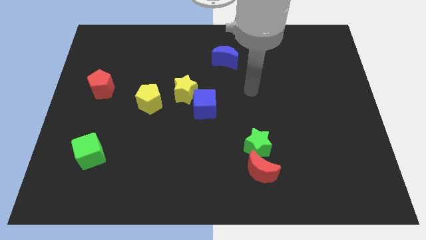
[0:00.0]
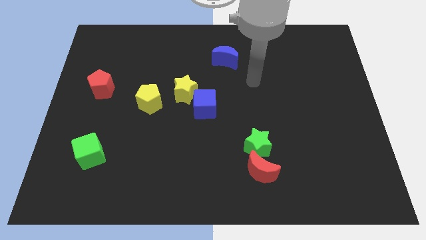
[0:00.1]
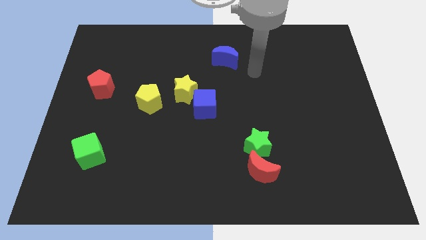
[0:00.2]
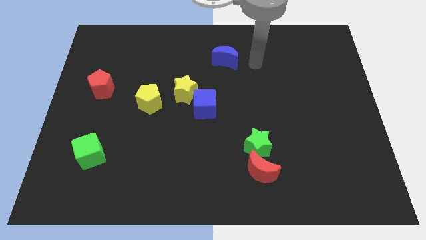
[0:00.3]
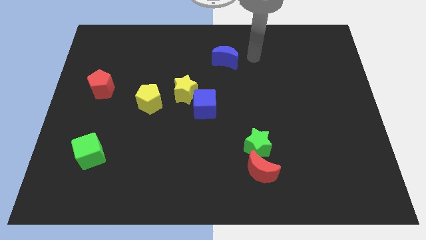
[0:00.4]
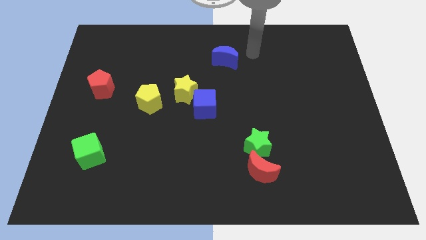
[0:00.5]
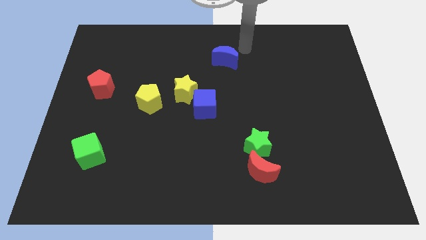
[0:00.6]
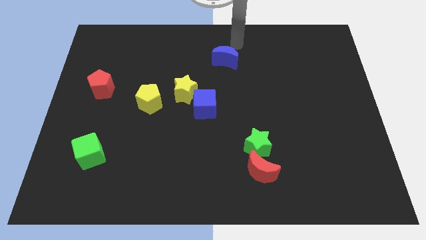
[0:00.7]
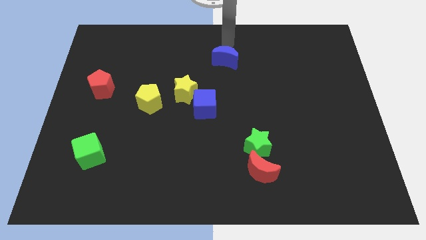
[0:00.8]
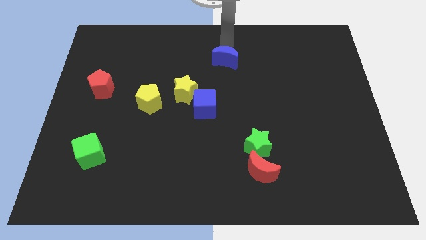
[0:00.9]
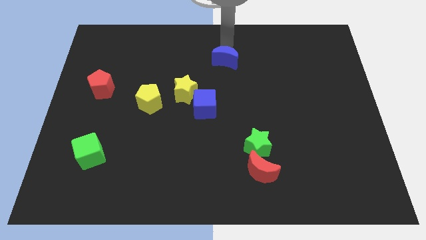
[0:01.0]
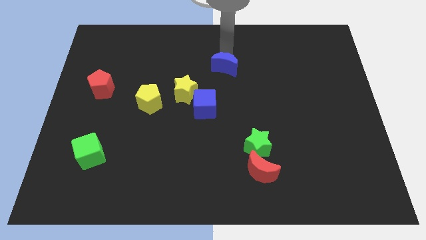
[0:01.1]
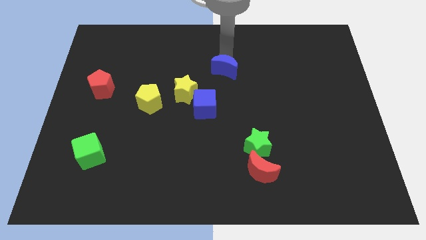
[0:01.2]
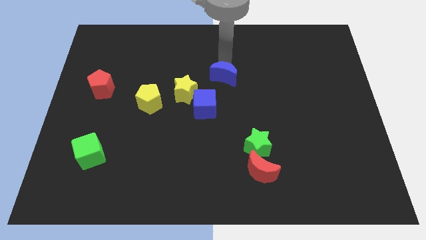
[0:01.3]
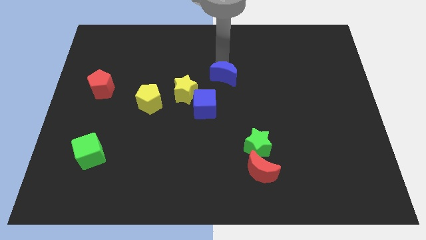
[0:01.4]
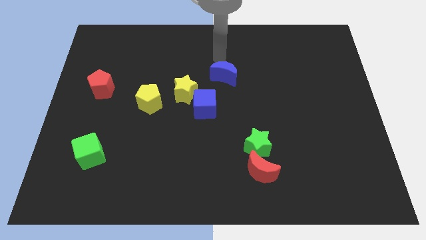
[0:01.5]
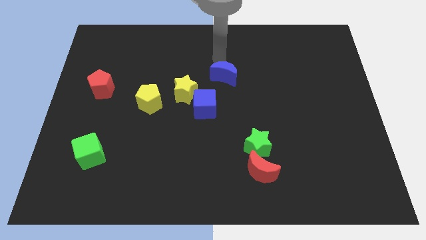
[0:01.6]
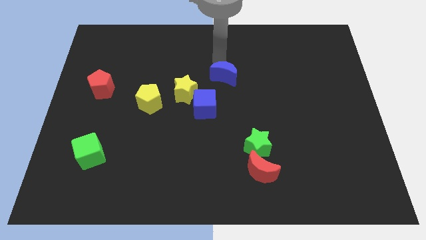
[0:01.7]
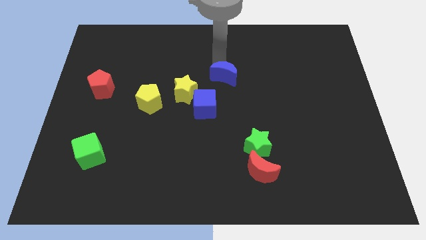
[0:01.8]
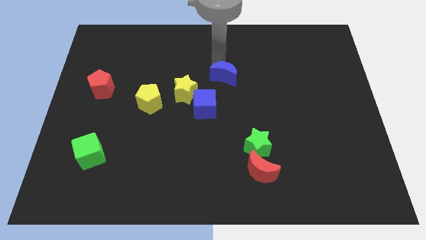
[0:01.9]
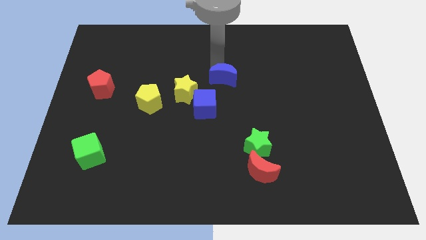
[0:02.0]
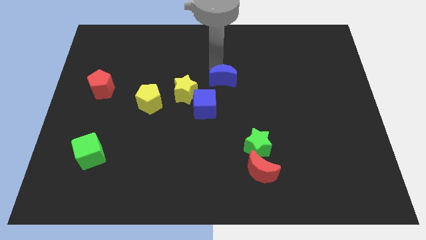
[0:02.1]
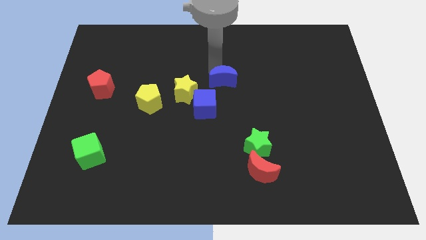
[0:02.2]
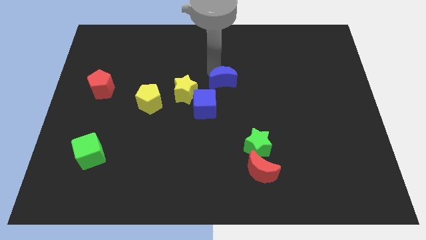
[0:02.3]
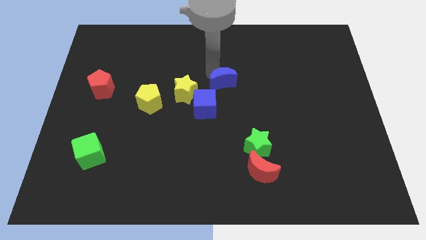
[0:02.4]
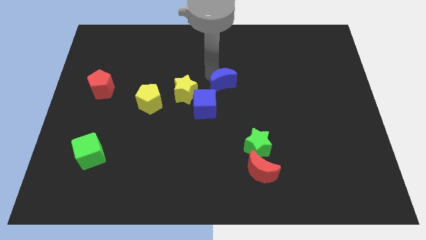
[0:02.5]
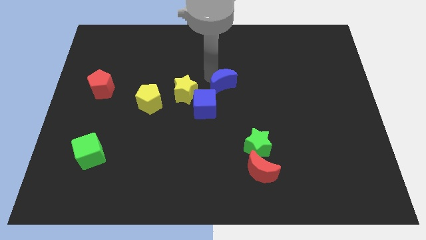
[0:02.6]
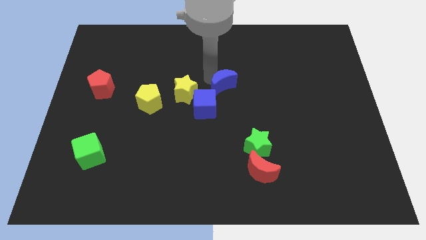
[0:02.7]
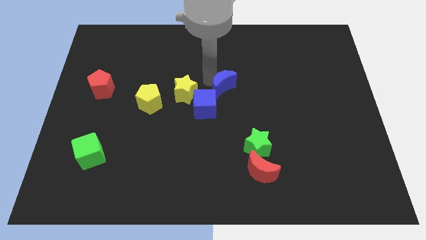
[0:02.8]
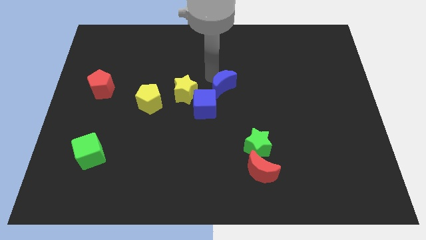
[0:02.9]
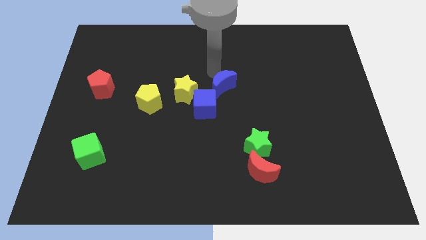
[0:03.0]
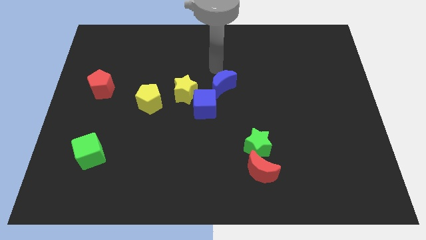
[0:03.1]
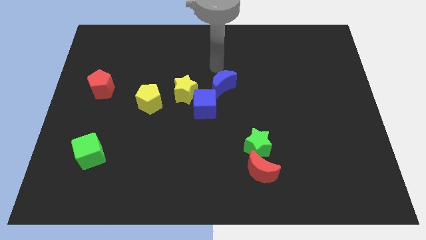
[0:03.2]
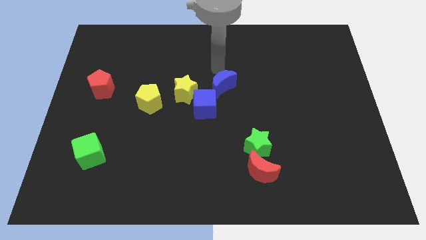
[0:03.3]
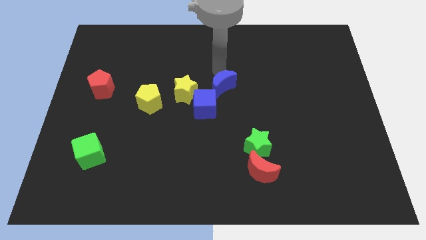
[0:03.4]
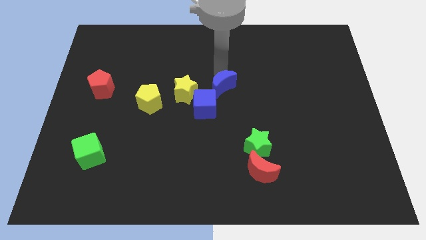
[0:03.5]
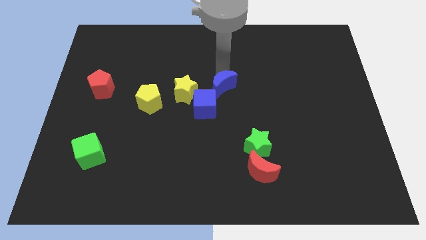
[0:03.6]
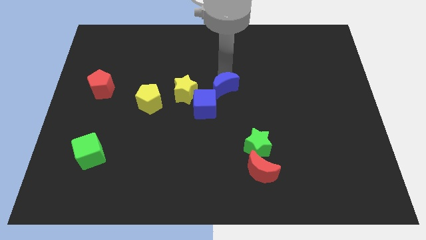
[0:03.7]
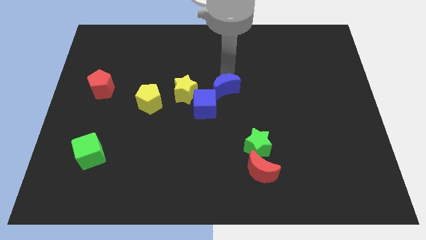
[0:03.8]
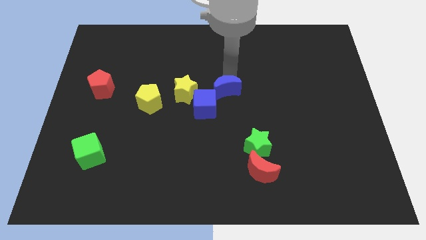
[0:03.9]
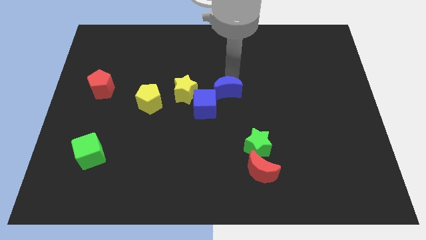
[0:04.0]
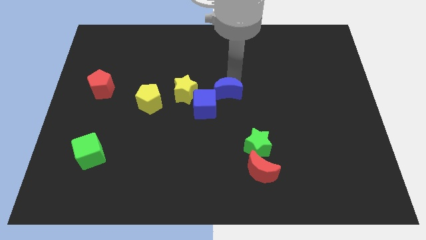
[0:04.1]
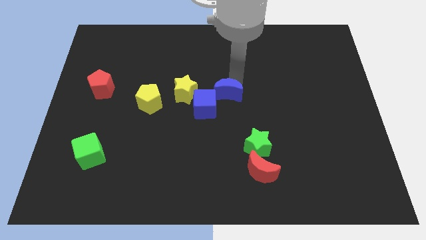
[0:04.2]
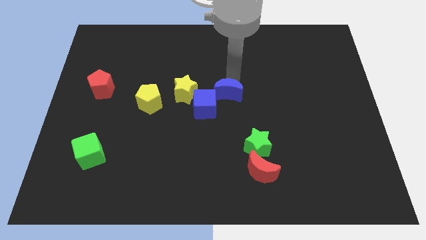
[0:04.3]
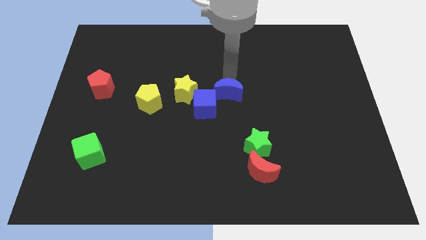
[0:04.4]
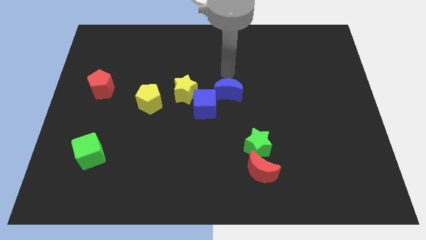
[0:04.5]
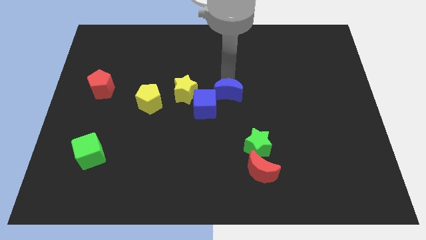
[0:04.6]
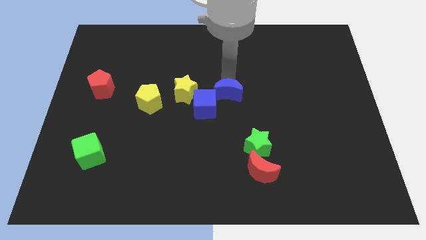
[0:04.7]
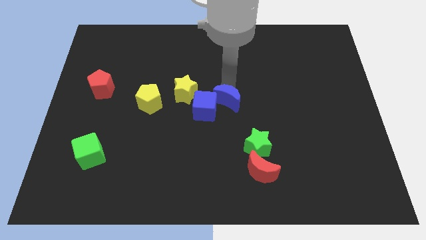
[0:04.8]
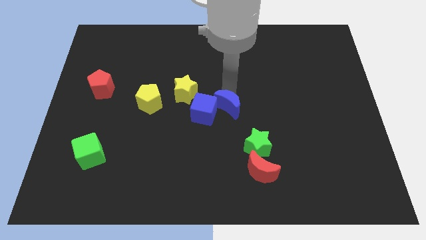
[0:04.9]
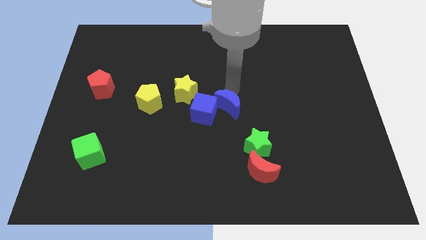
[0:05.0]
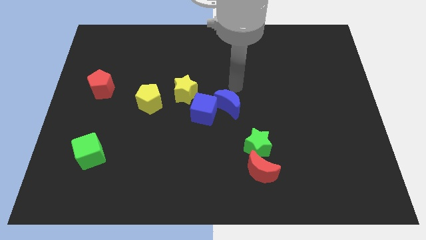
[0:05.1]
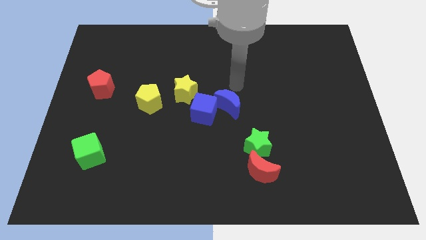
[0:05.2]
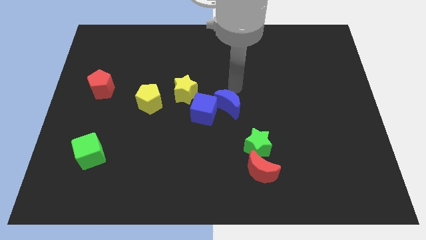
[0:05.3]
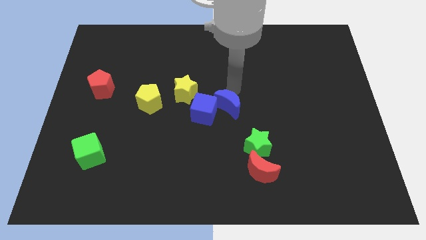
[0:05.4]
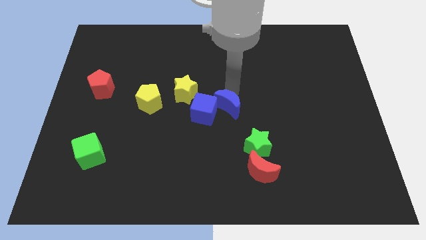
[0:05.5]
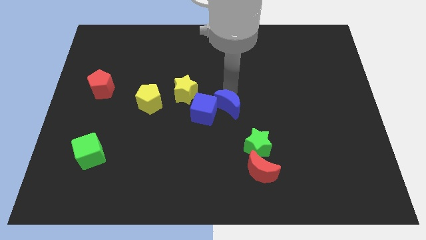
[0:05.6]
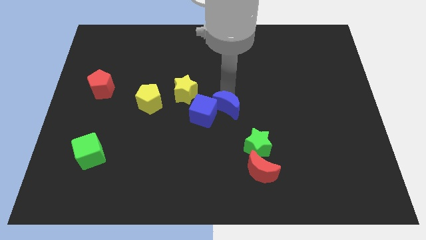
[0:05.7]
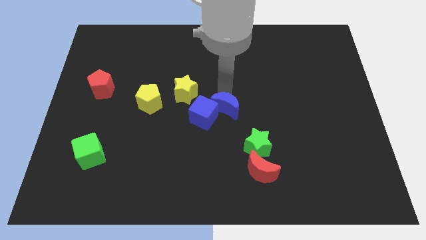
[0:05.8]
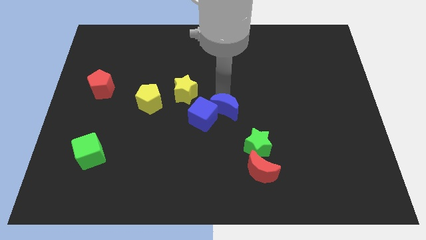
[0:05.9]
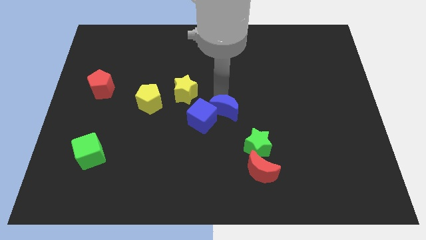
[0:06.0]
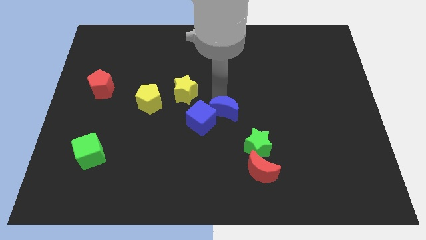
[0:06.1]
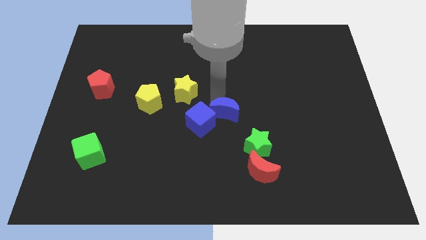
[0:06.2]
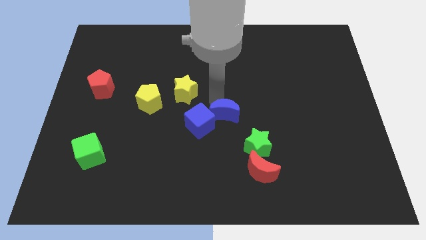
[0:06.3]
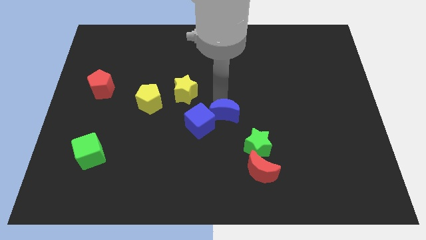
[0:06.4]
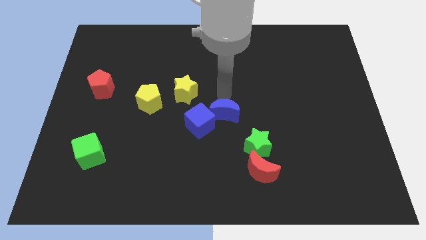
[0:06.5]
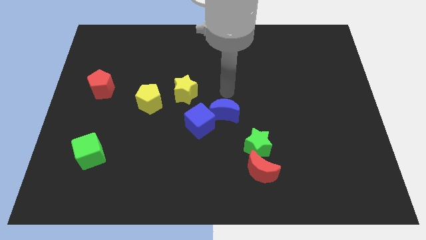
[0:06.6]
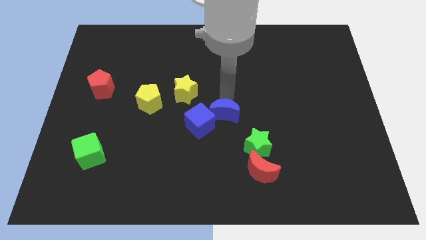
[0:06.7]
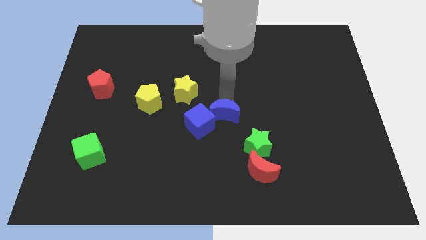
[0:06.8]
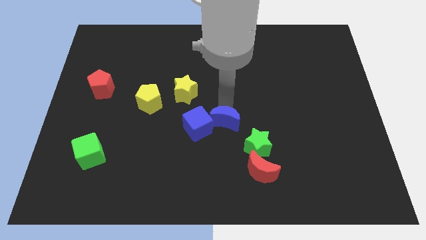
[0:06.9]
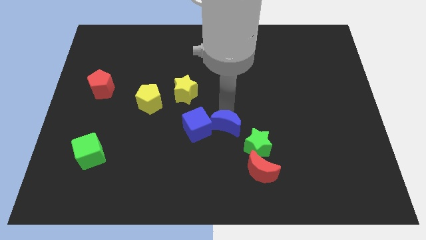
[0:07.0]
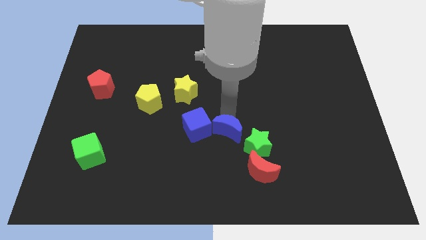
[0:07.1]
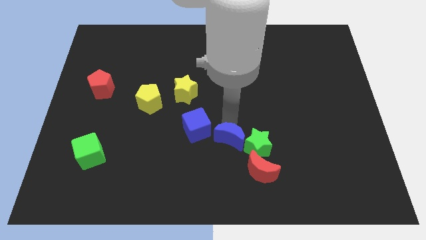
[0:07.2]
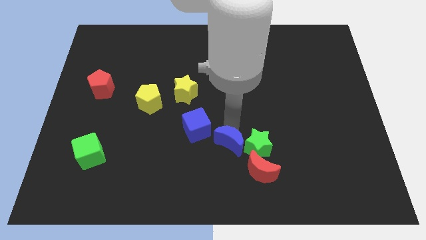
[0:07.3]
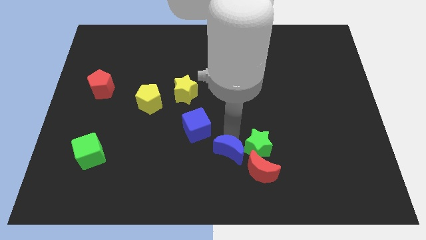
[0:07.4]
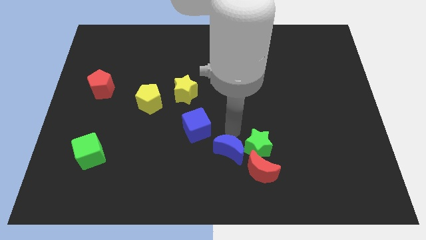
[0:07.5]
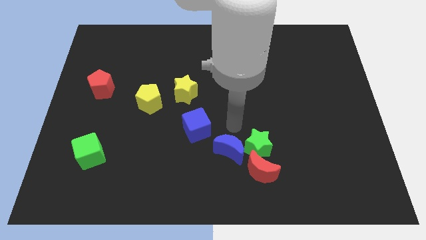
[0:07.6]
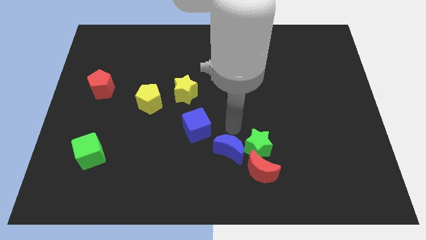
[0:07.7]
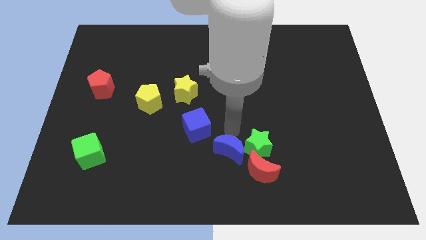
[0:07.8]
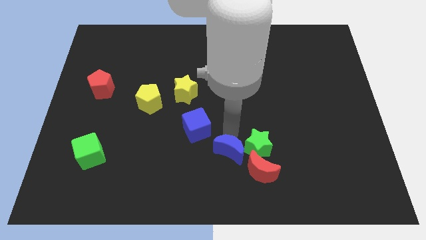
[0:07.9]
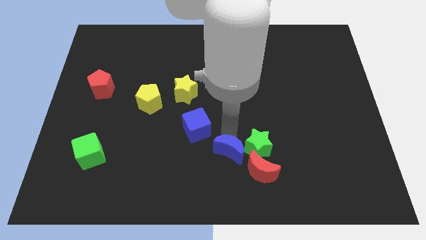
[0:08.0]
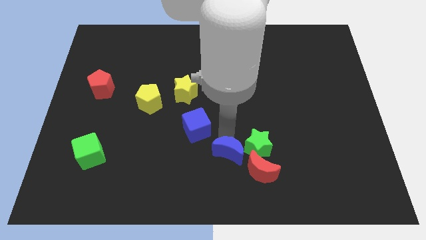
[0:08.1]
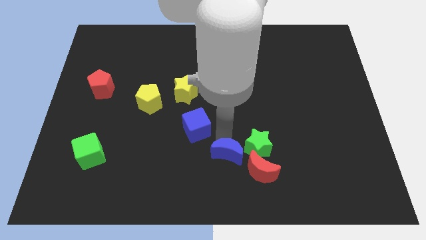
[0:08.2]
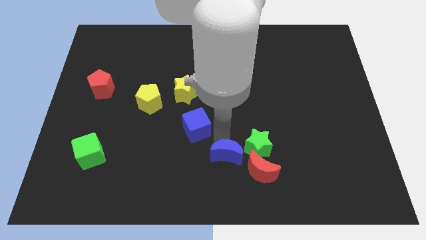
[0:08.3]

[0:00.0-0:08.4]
put the blue moon to the bottom side
